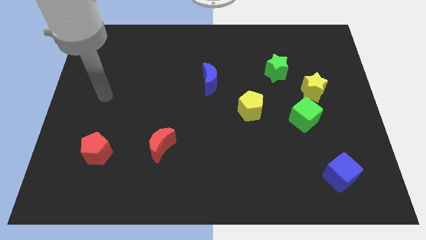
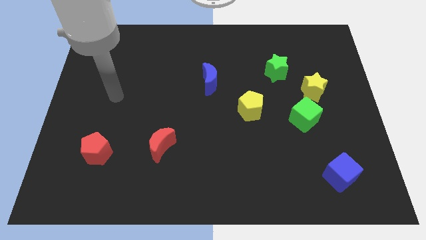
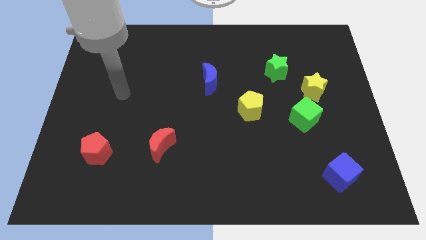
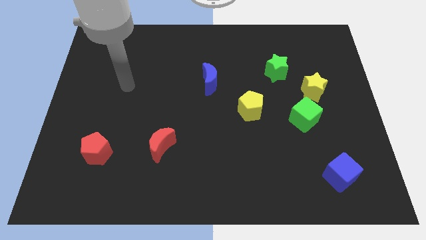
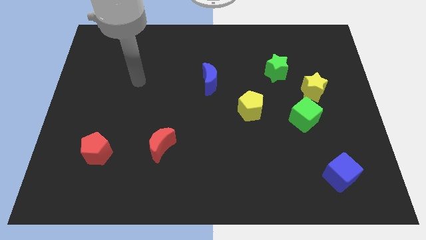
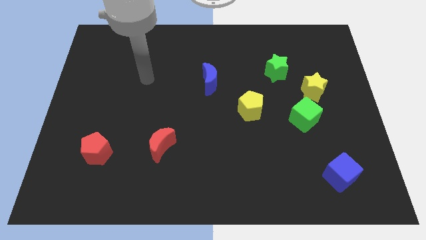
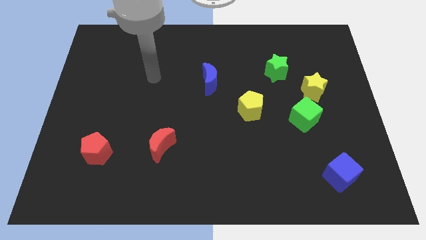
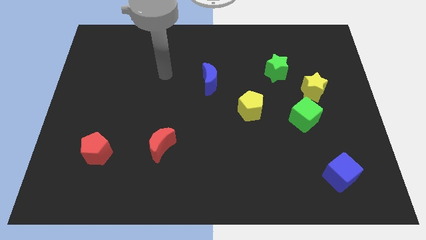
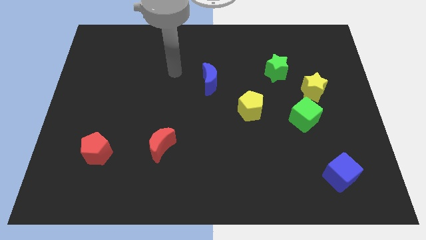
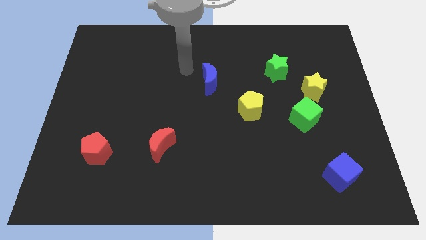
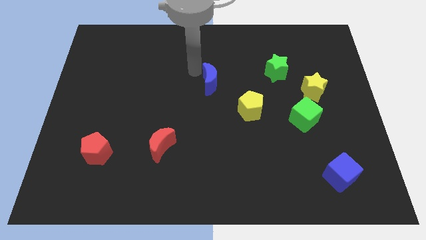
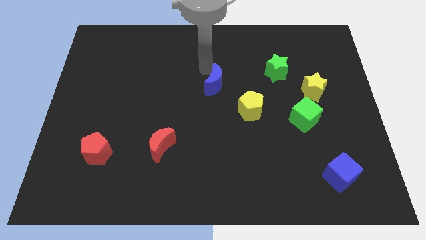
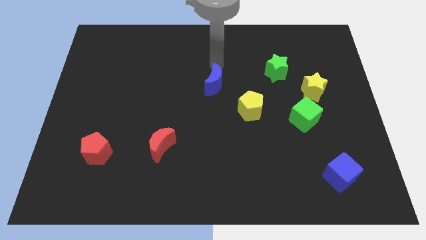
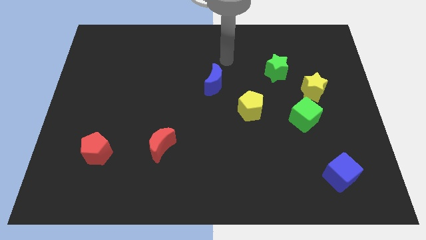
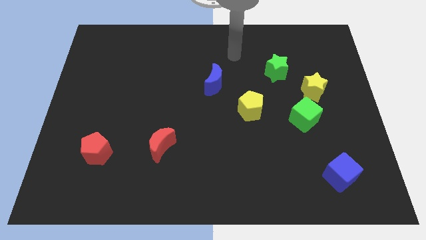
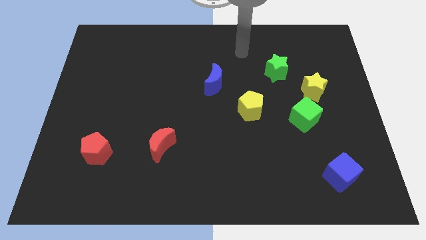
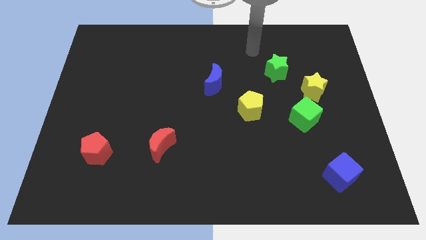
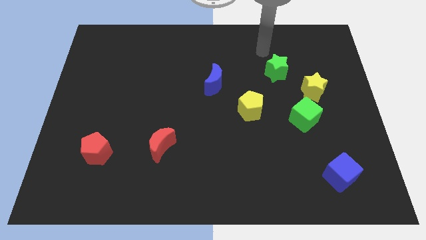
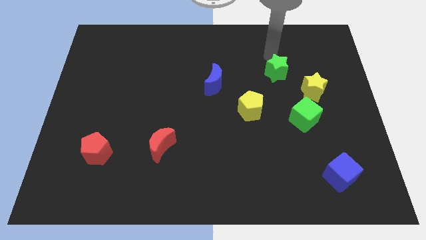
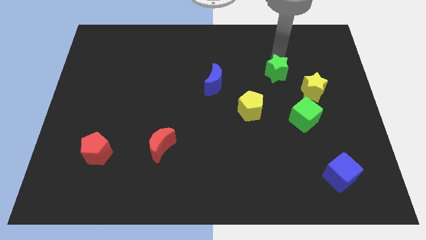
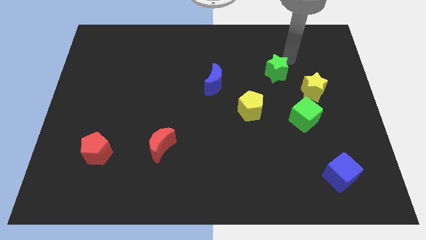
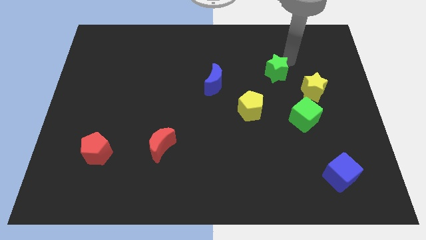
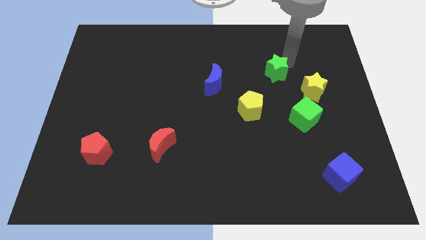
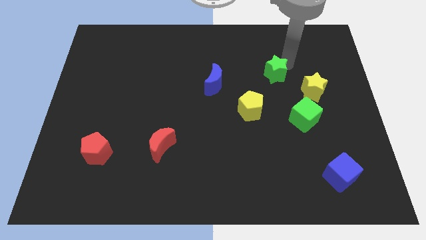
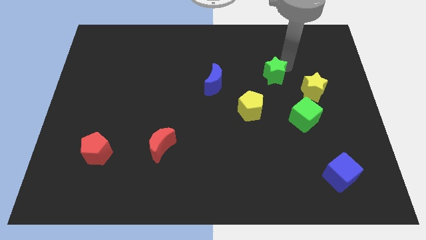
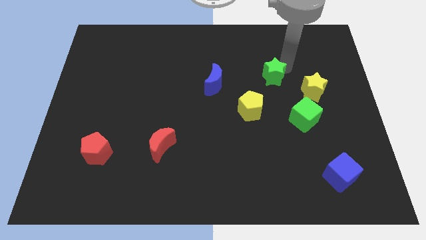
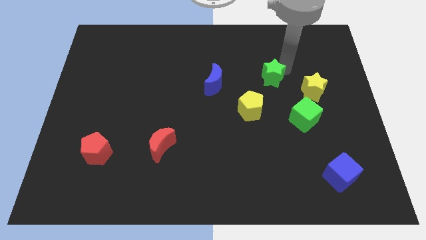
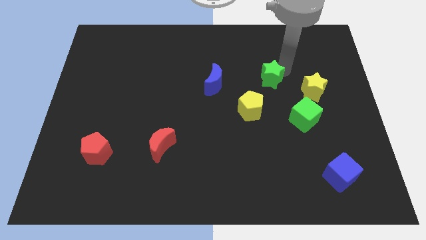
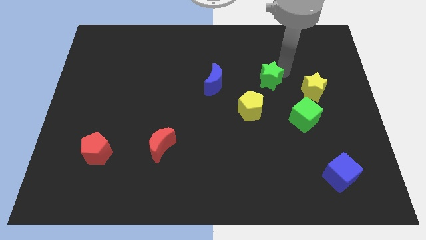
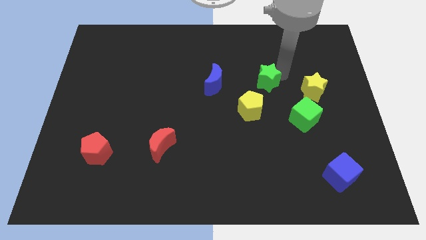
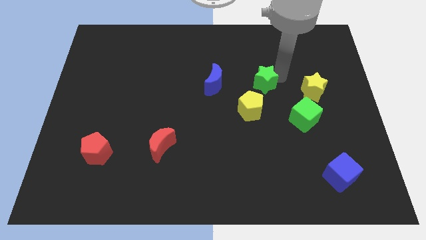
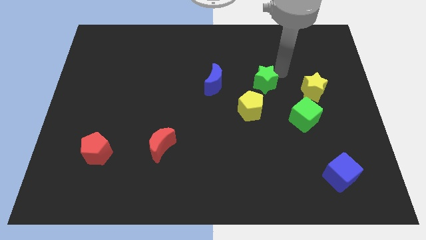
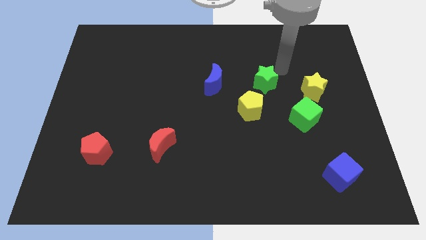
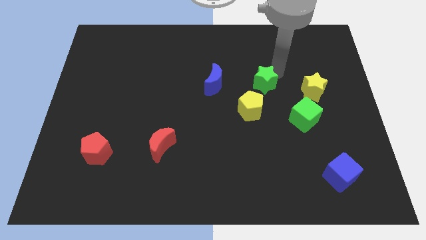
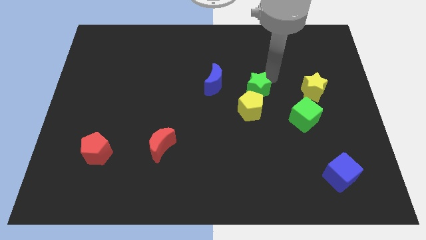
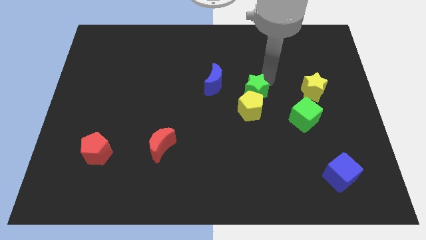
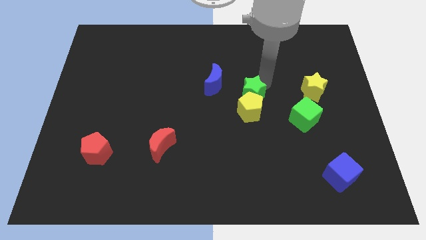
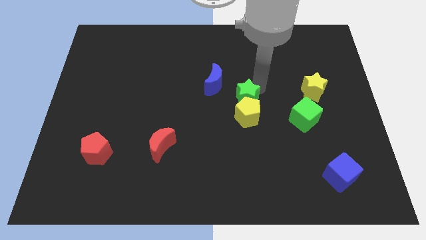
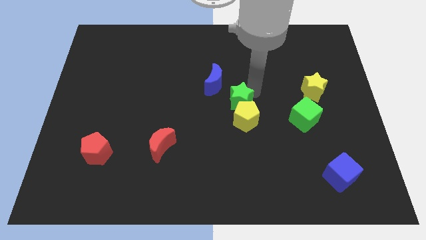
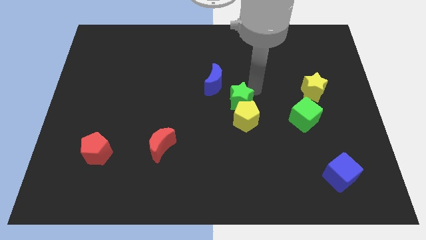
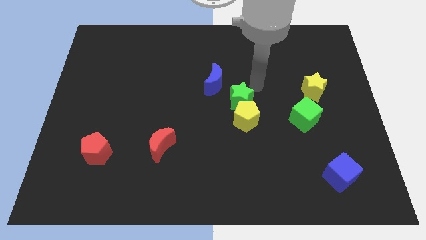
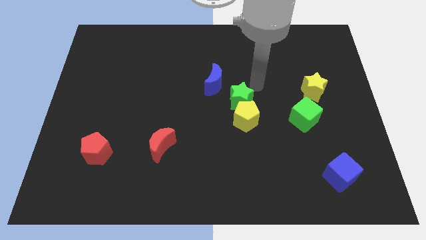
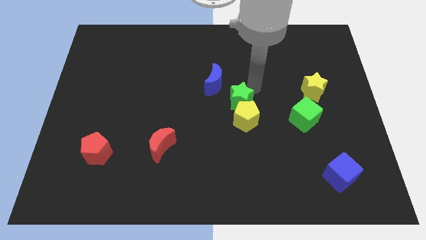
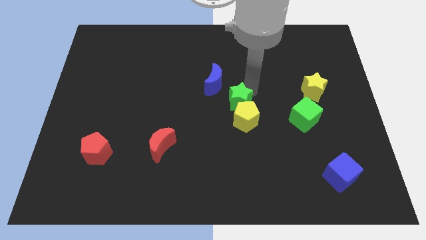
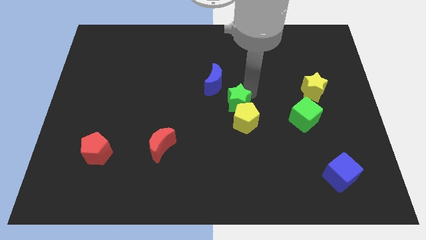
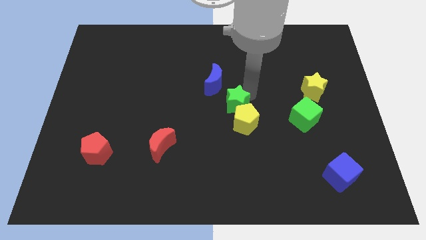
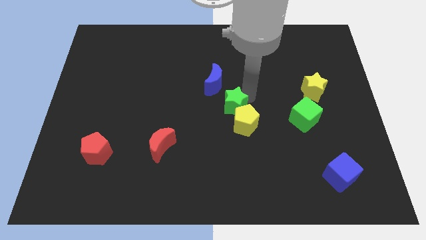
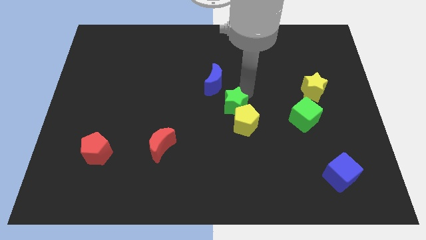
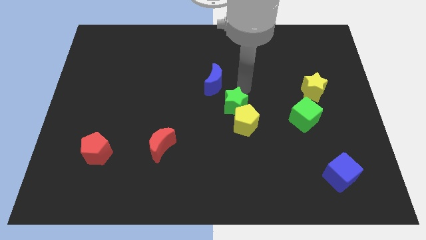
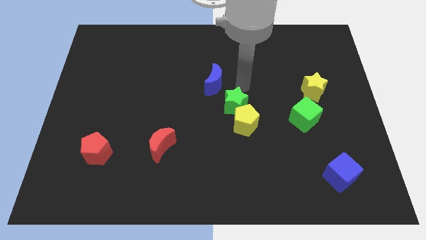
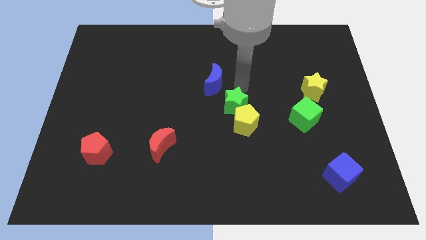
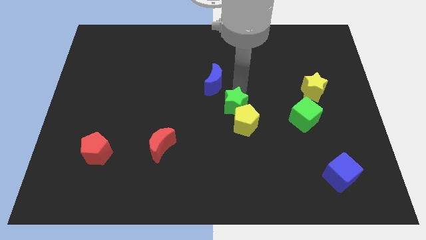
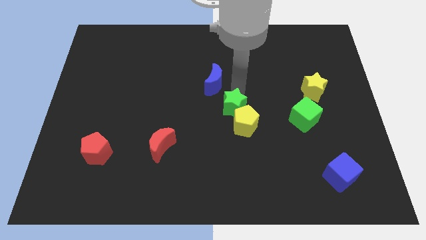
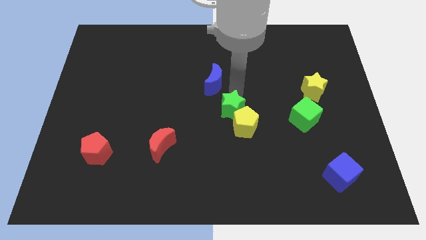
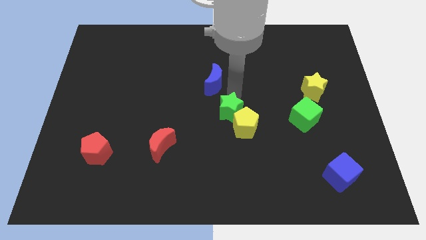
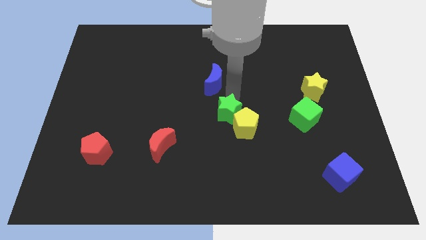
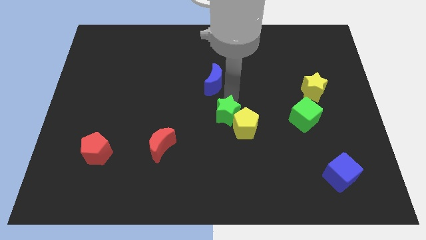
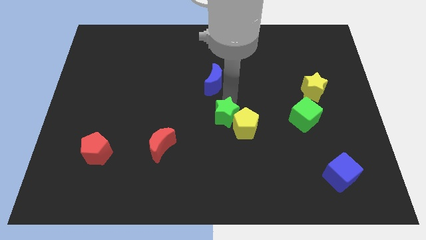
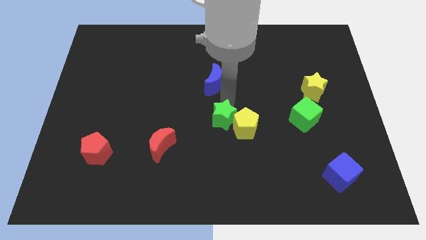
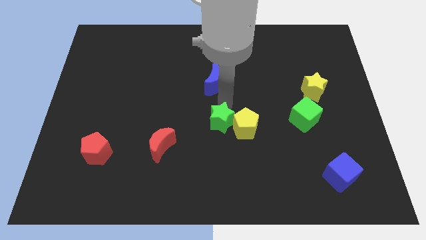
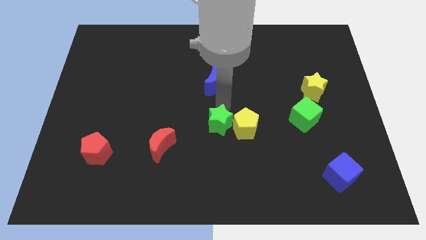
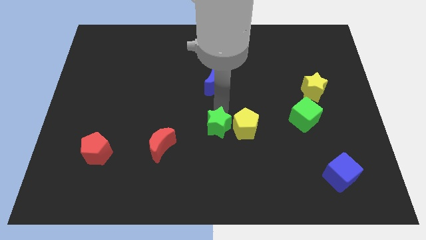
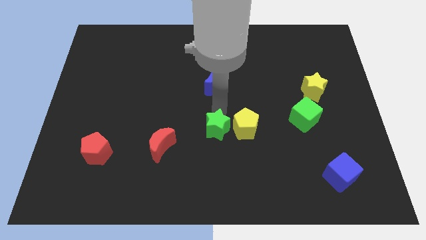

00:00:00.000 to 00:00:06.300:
put the green star right of the red moon
